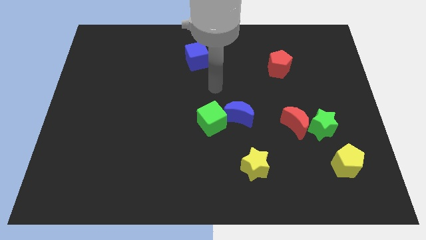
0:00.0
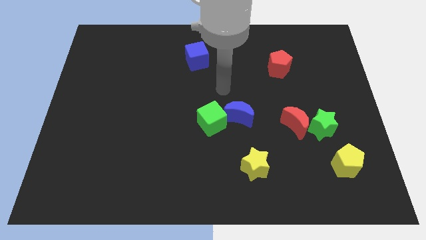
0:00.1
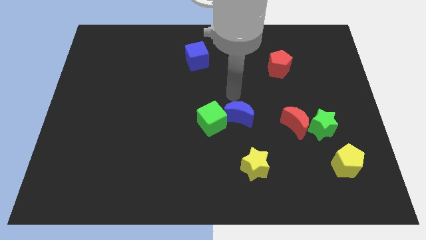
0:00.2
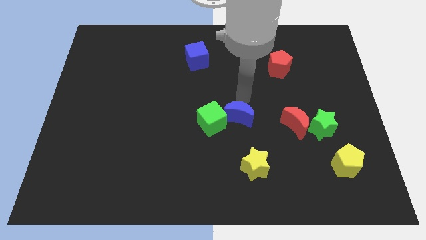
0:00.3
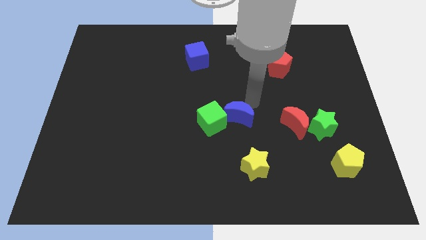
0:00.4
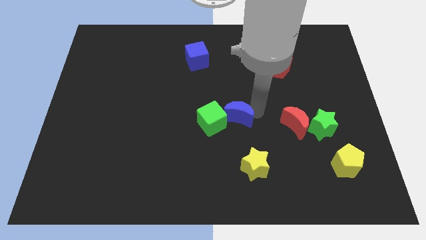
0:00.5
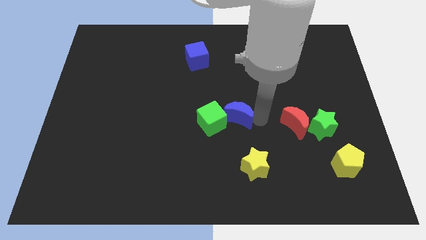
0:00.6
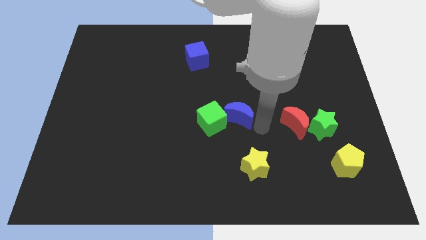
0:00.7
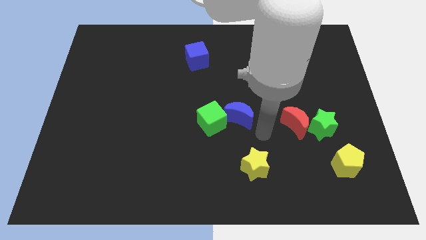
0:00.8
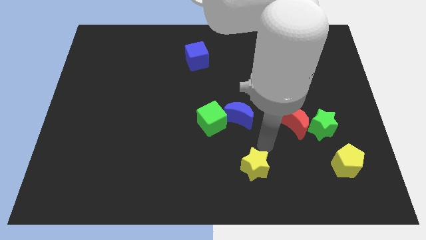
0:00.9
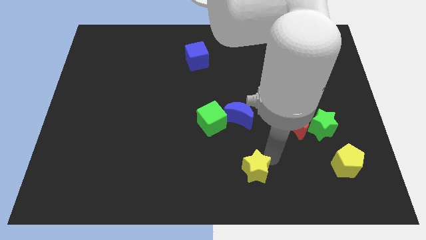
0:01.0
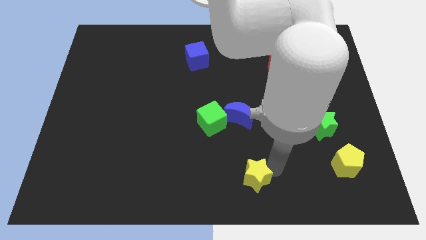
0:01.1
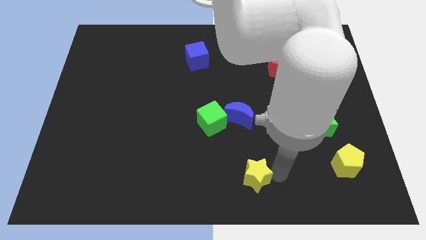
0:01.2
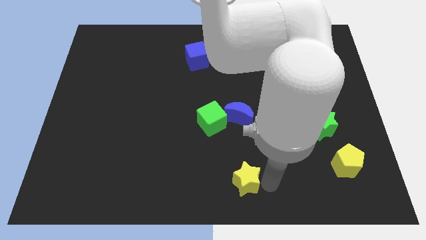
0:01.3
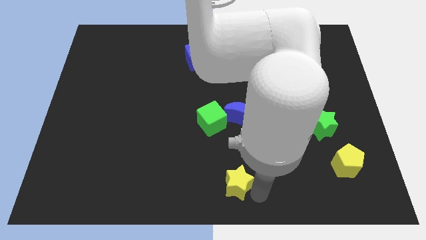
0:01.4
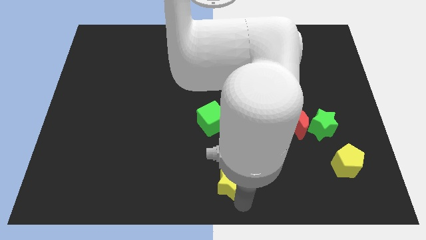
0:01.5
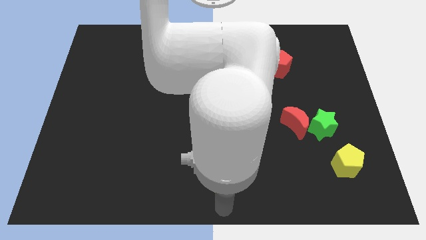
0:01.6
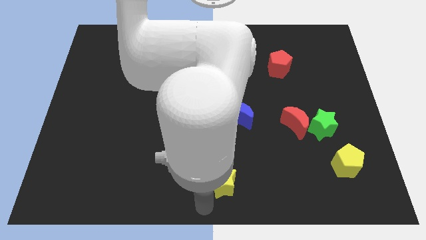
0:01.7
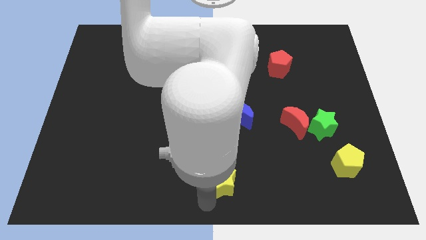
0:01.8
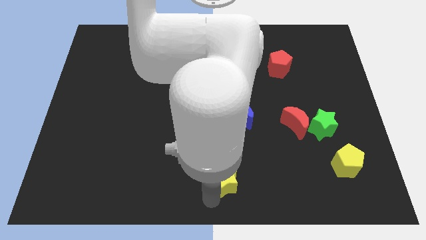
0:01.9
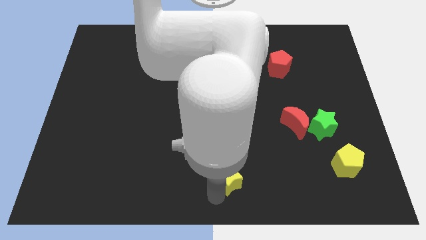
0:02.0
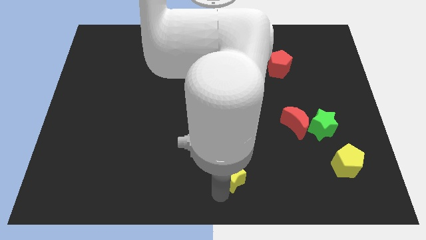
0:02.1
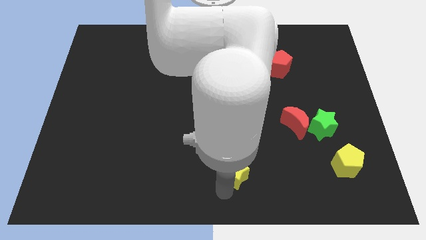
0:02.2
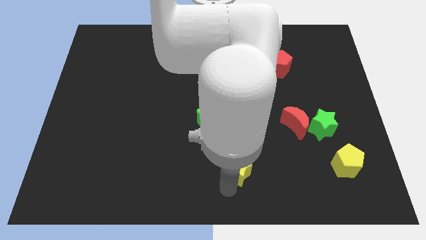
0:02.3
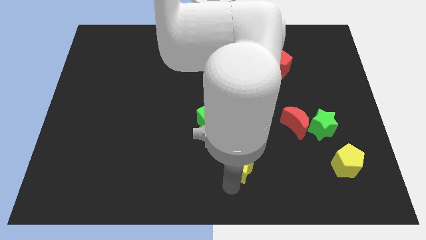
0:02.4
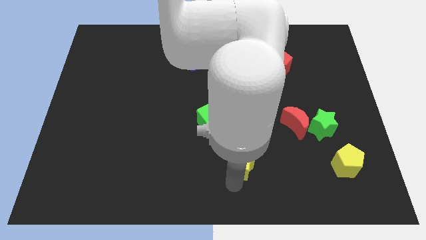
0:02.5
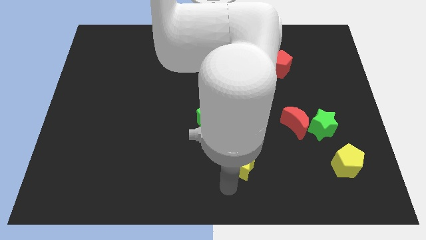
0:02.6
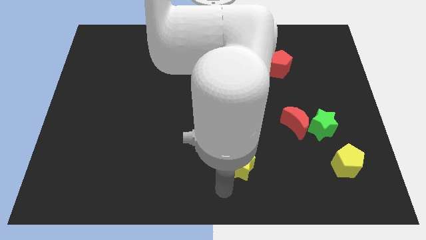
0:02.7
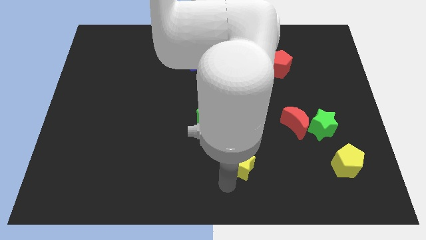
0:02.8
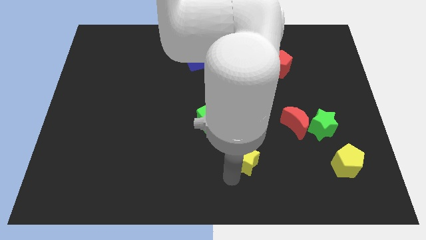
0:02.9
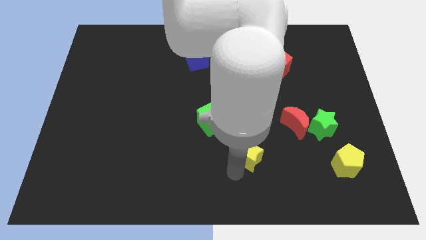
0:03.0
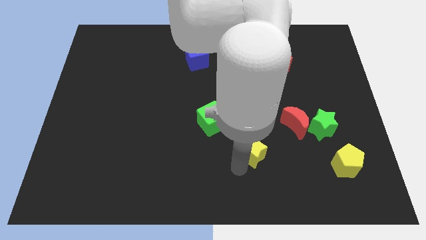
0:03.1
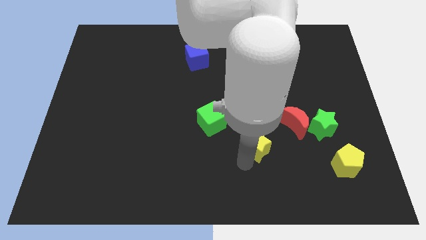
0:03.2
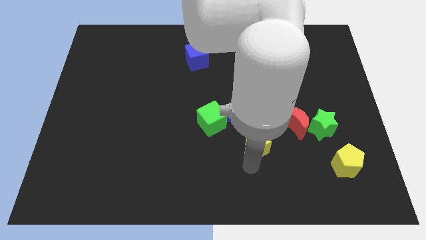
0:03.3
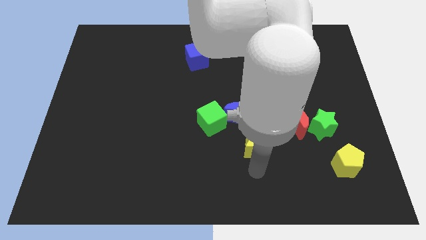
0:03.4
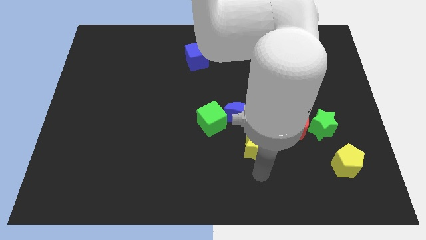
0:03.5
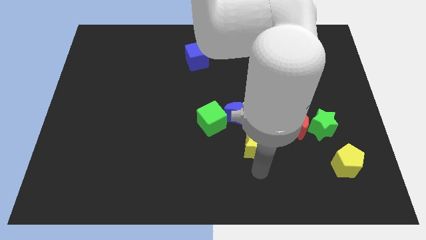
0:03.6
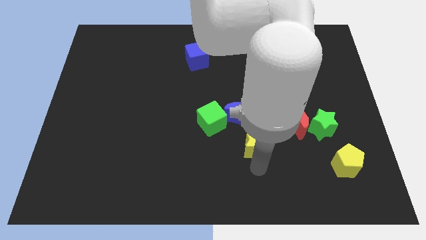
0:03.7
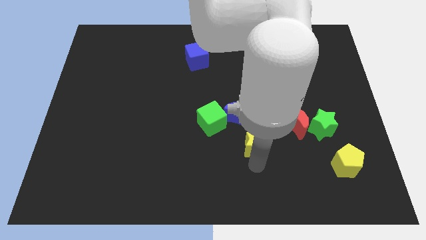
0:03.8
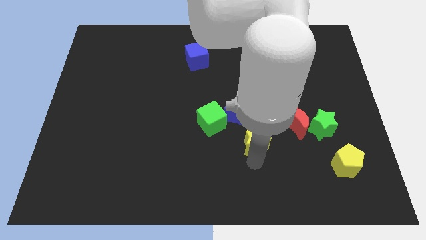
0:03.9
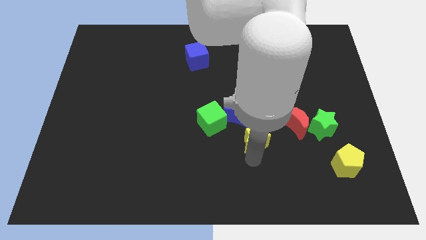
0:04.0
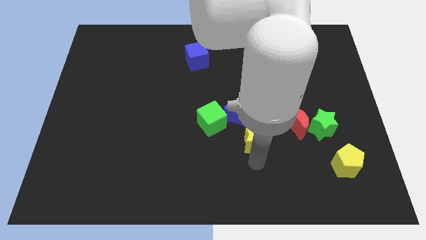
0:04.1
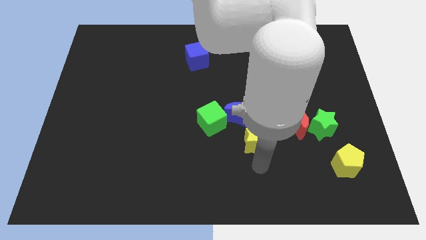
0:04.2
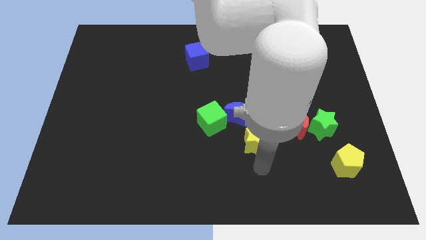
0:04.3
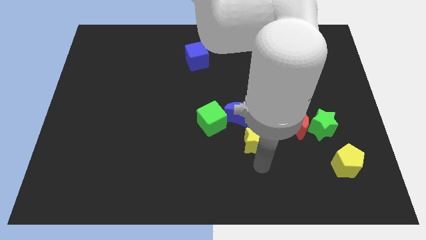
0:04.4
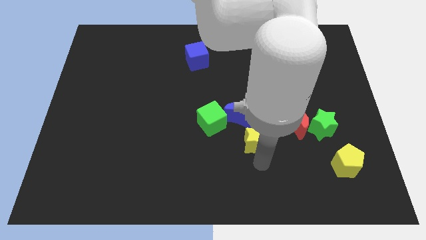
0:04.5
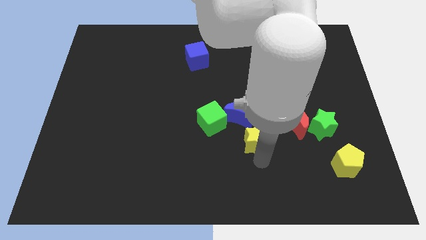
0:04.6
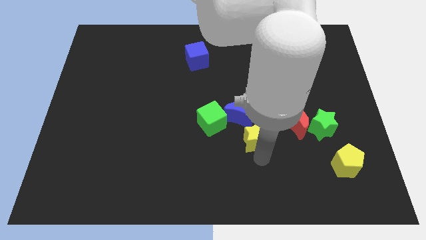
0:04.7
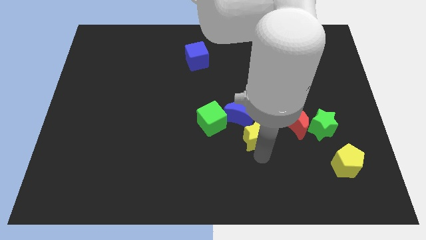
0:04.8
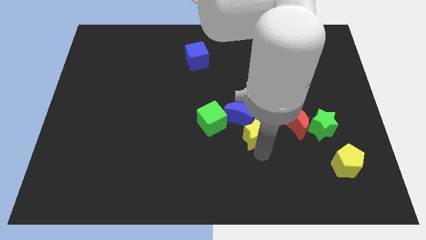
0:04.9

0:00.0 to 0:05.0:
slide the yellow star close to the blue moon

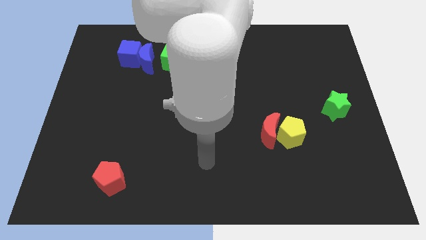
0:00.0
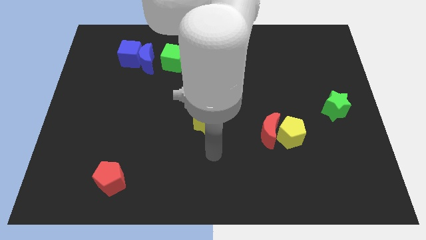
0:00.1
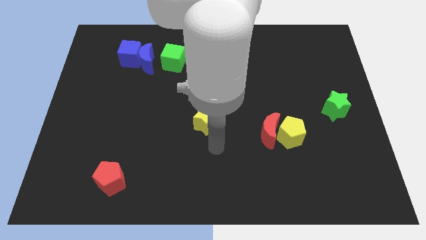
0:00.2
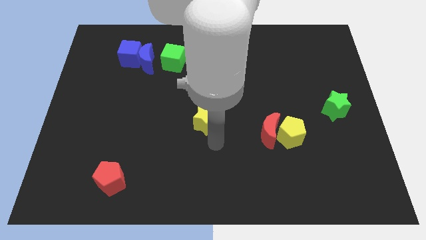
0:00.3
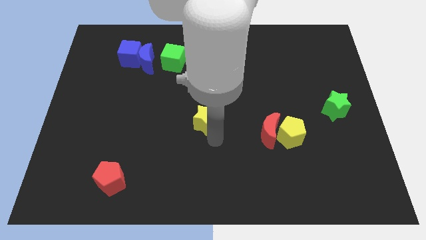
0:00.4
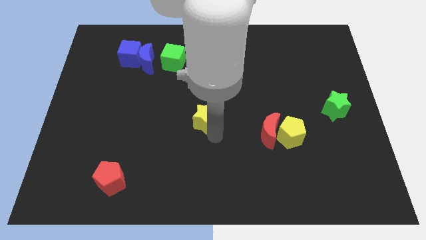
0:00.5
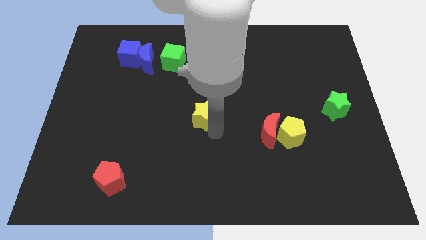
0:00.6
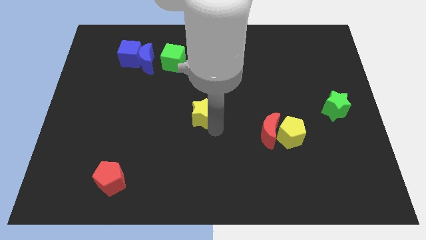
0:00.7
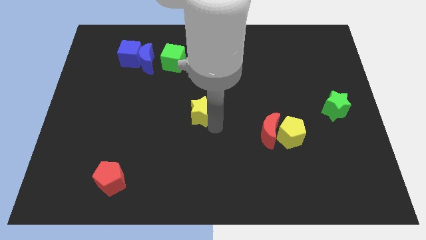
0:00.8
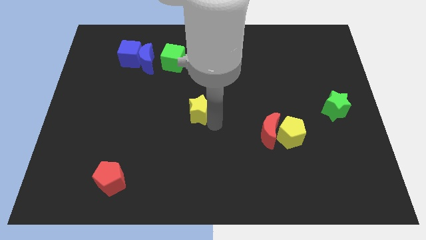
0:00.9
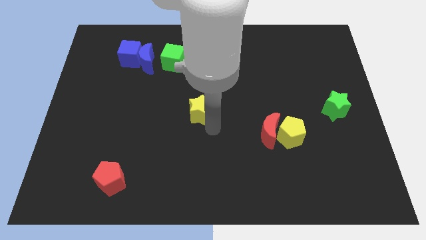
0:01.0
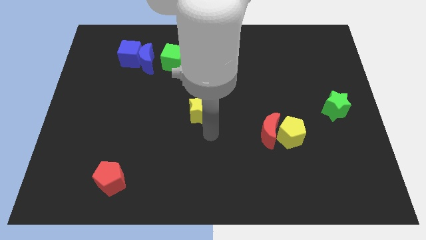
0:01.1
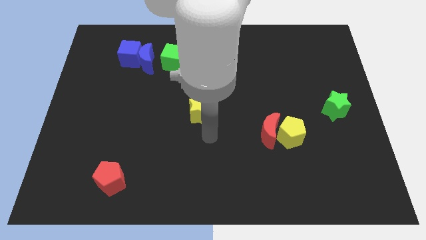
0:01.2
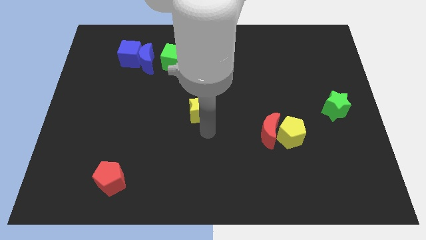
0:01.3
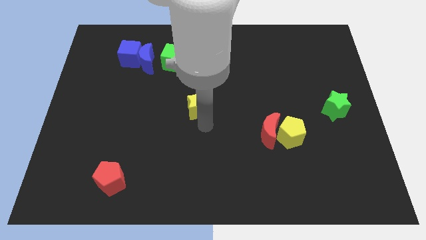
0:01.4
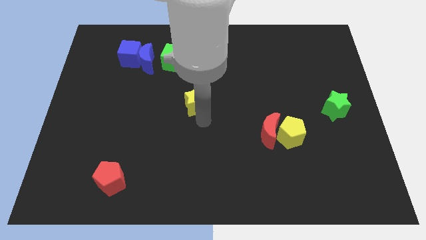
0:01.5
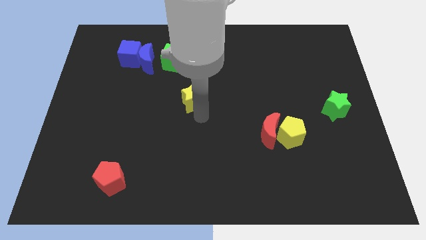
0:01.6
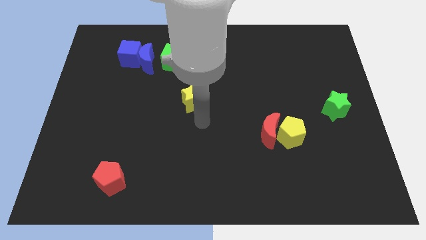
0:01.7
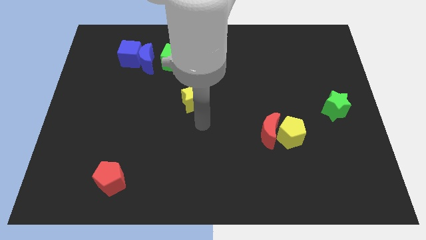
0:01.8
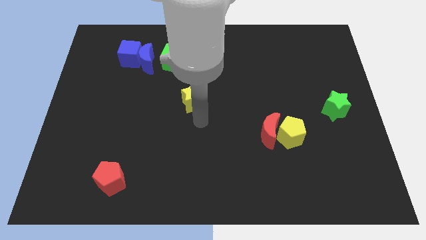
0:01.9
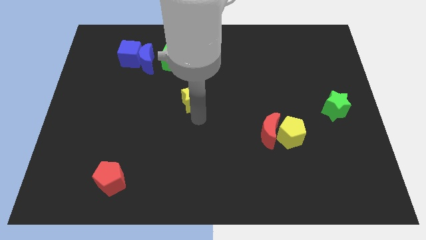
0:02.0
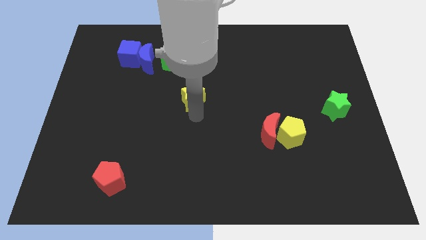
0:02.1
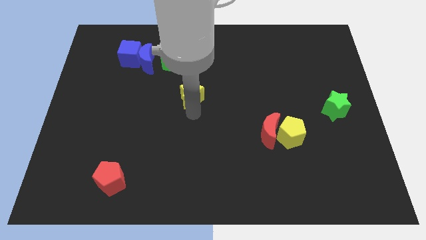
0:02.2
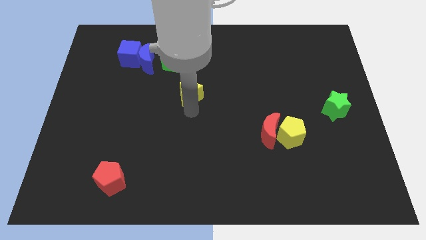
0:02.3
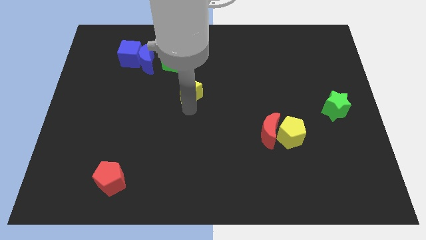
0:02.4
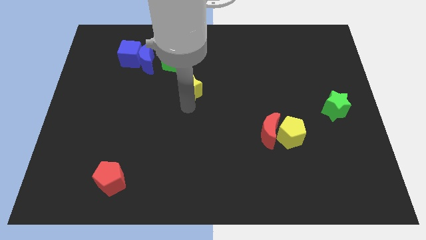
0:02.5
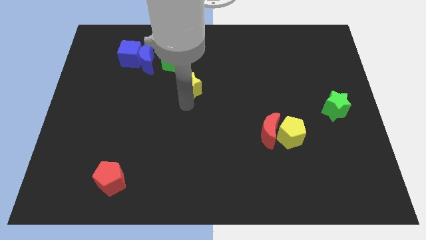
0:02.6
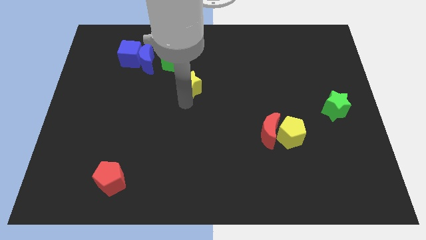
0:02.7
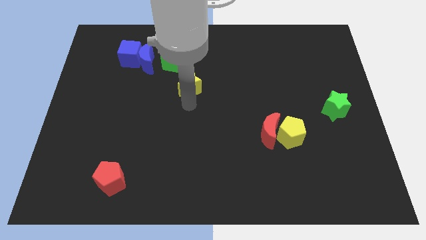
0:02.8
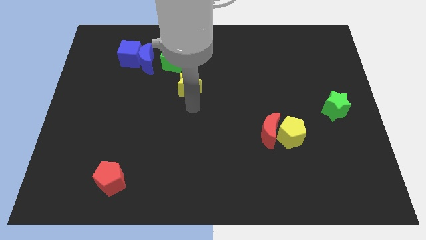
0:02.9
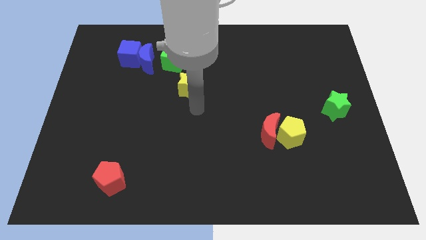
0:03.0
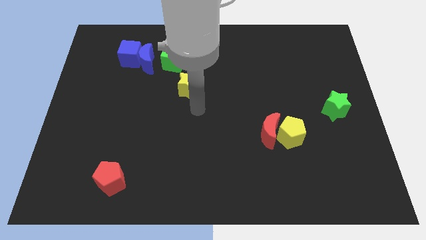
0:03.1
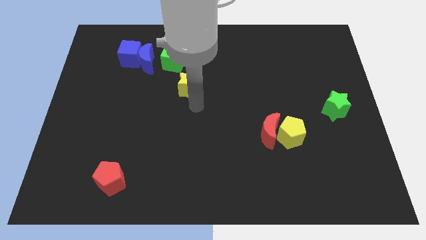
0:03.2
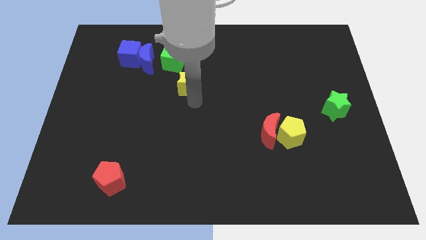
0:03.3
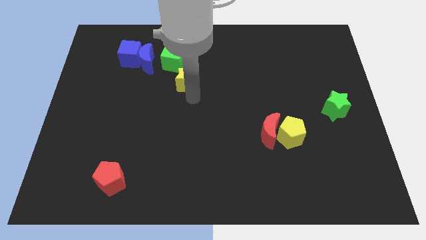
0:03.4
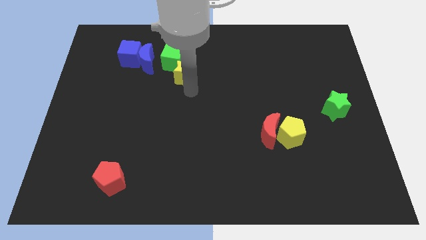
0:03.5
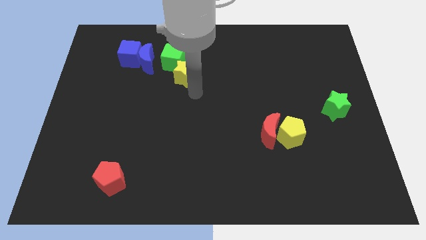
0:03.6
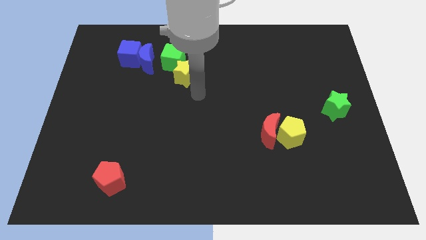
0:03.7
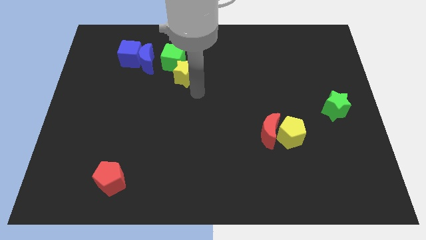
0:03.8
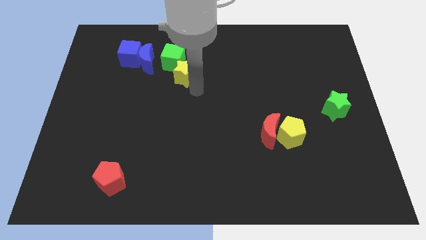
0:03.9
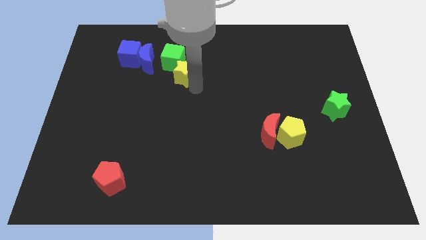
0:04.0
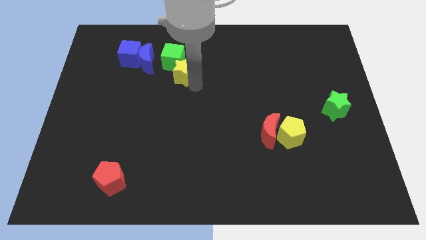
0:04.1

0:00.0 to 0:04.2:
push the yellow star close to the green cube
